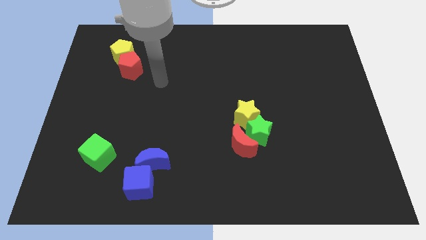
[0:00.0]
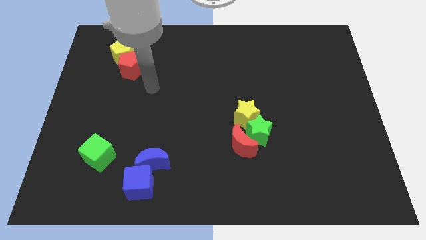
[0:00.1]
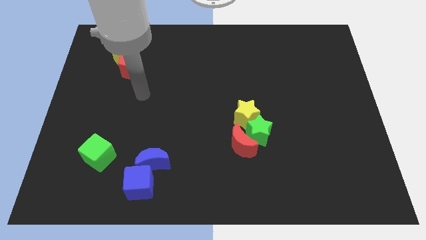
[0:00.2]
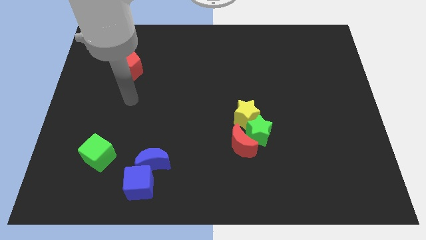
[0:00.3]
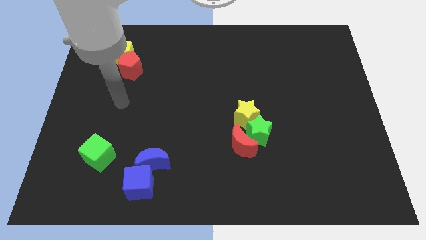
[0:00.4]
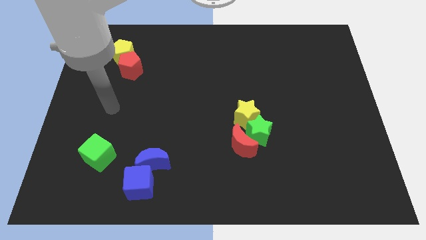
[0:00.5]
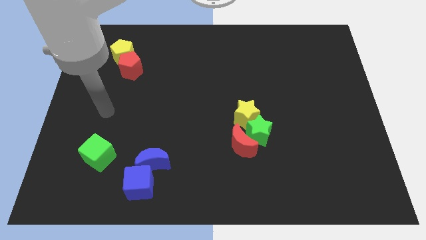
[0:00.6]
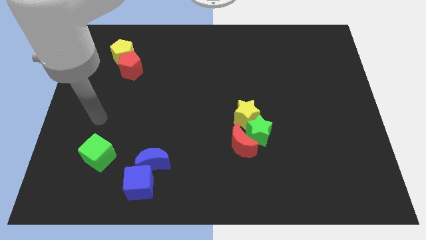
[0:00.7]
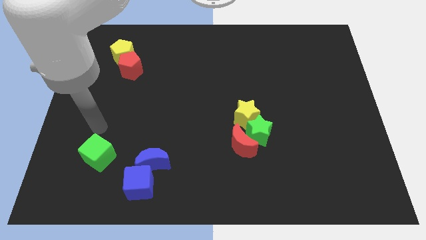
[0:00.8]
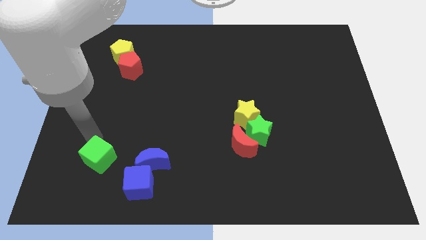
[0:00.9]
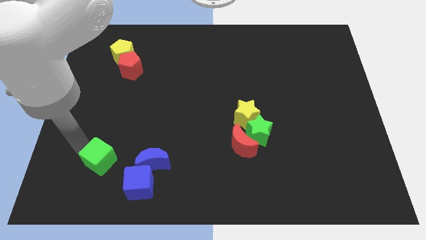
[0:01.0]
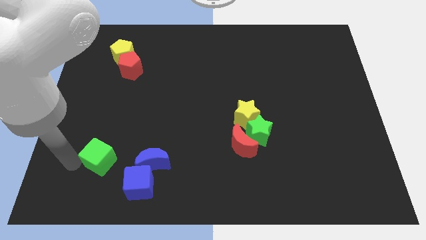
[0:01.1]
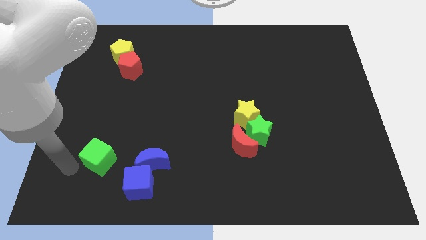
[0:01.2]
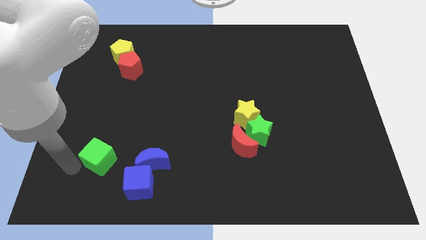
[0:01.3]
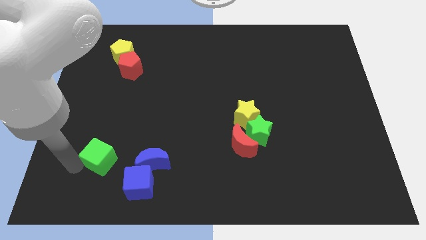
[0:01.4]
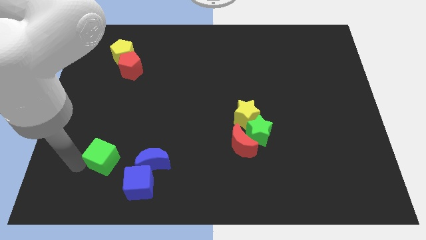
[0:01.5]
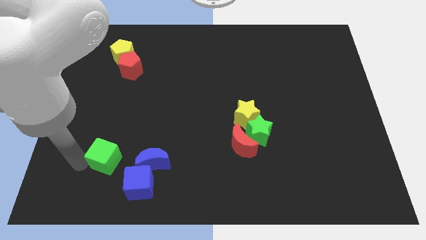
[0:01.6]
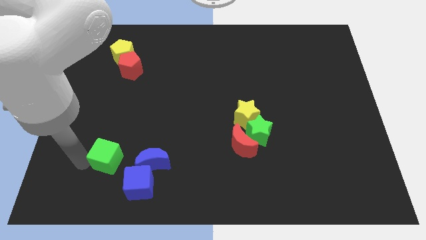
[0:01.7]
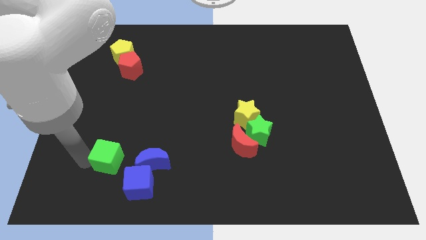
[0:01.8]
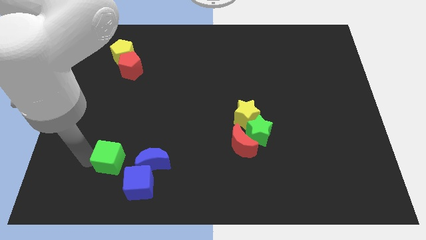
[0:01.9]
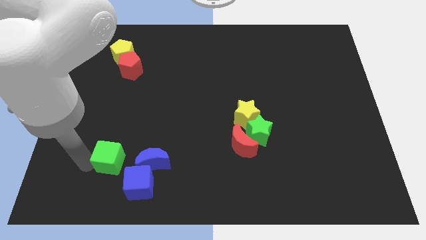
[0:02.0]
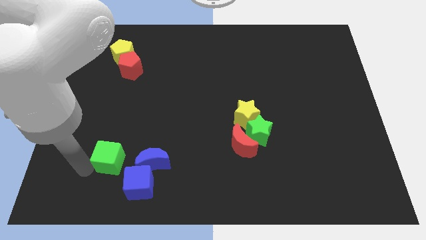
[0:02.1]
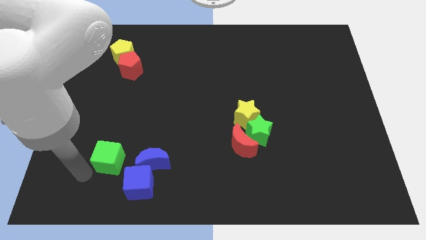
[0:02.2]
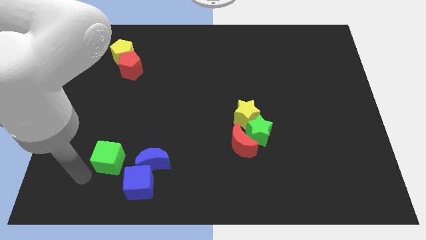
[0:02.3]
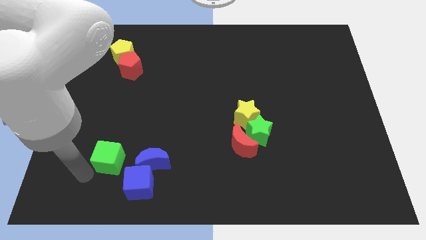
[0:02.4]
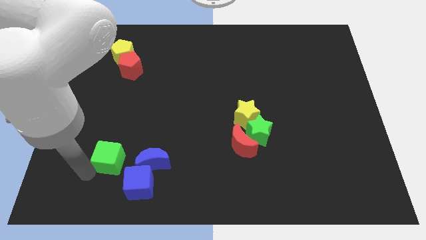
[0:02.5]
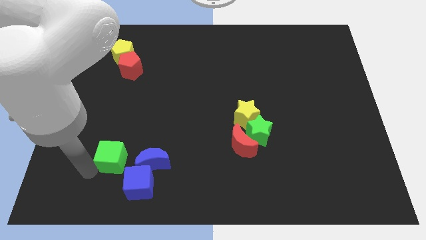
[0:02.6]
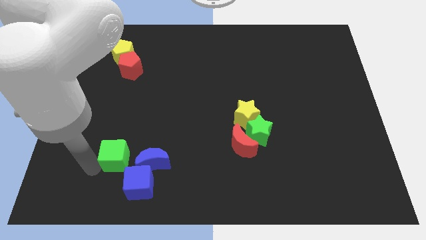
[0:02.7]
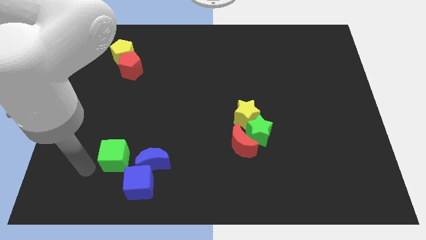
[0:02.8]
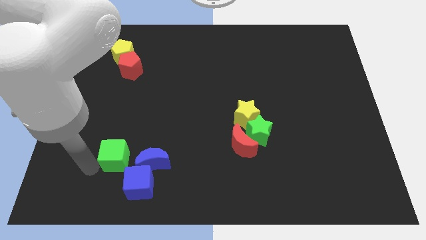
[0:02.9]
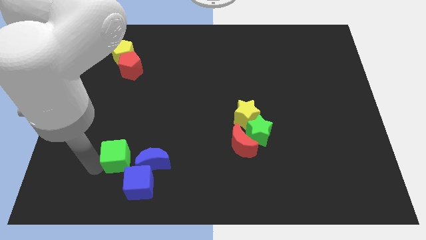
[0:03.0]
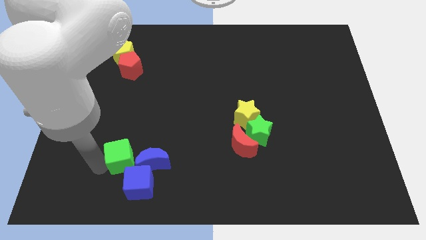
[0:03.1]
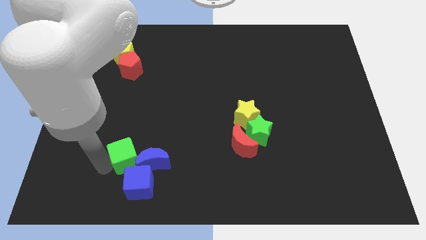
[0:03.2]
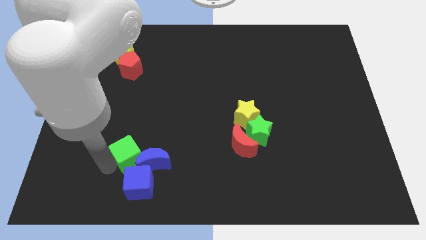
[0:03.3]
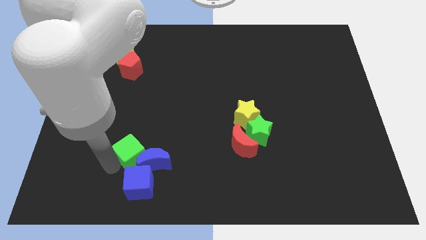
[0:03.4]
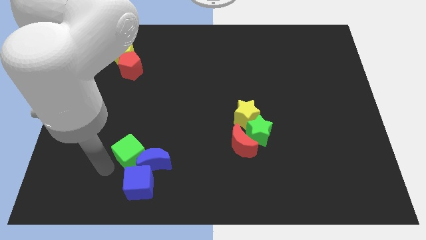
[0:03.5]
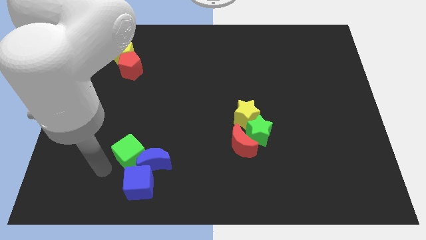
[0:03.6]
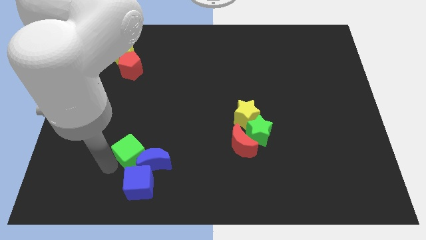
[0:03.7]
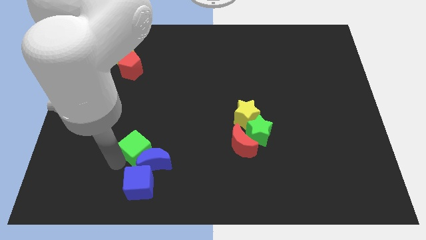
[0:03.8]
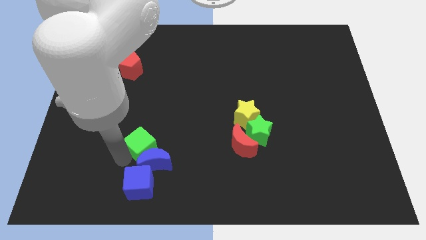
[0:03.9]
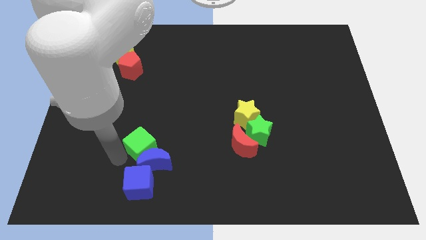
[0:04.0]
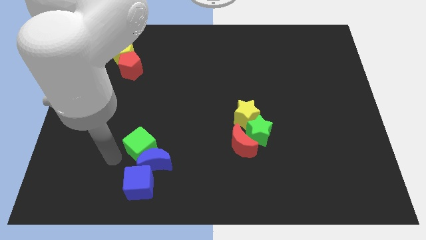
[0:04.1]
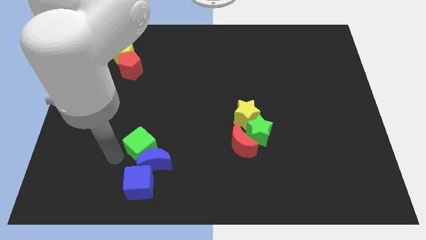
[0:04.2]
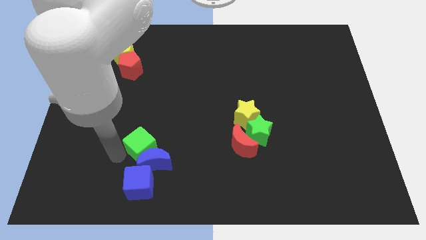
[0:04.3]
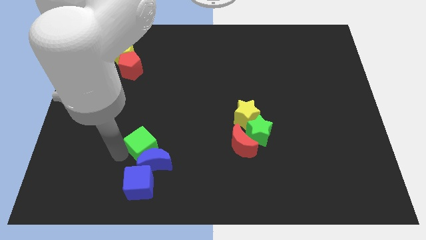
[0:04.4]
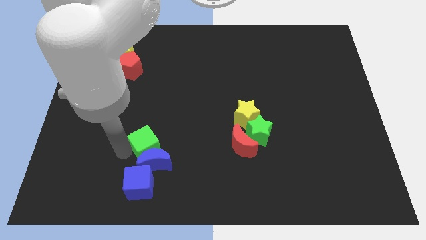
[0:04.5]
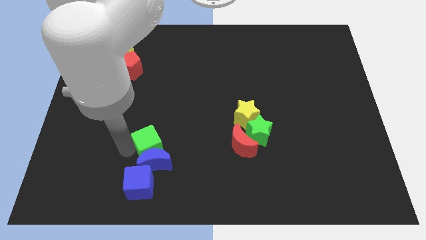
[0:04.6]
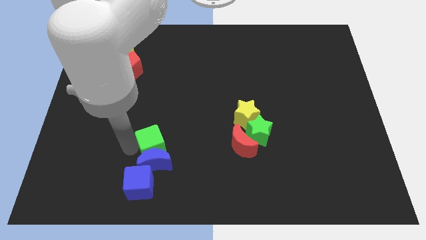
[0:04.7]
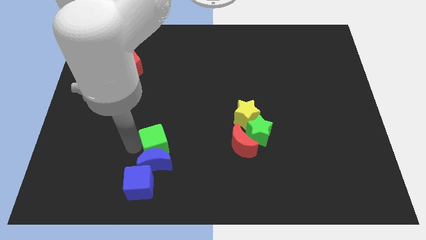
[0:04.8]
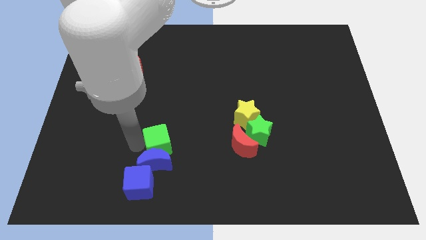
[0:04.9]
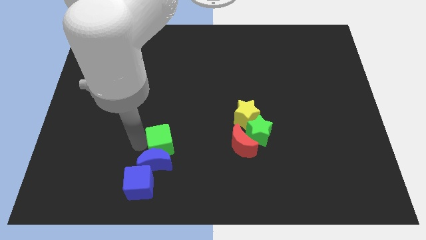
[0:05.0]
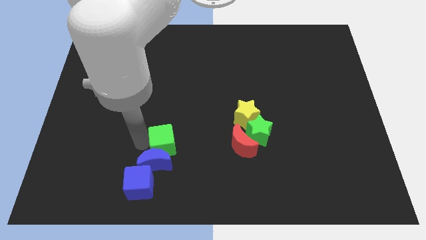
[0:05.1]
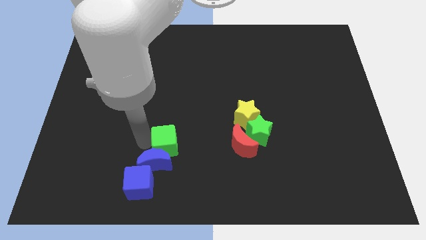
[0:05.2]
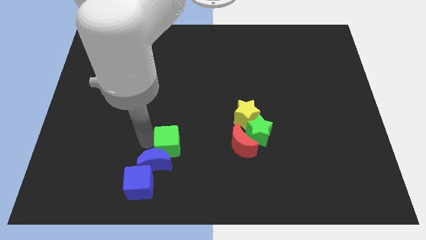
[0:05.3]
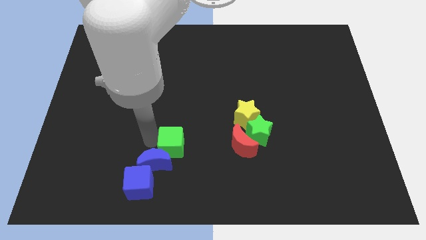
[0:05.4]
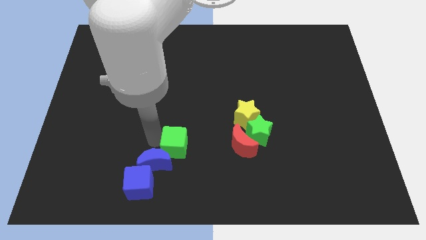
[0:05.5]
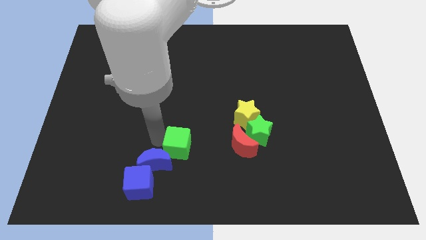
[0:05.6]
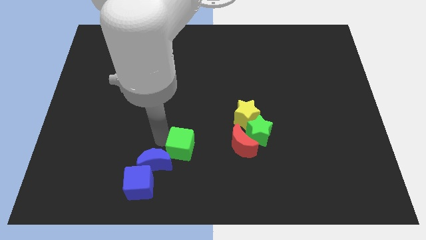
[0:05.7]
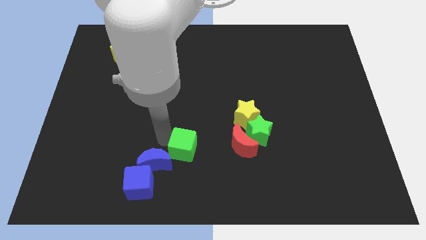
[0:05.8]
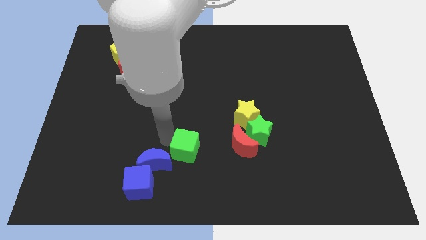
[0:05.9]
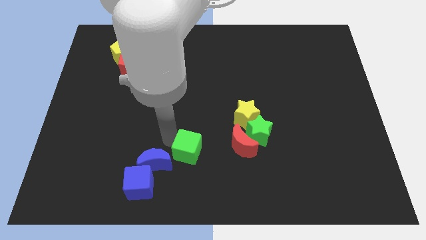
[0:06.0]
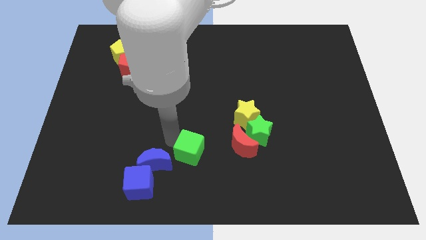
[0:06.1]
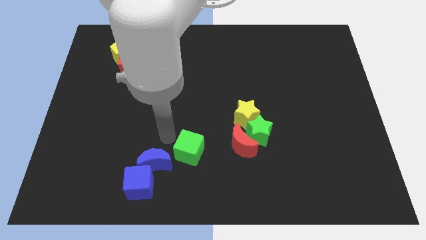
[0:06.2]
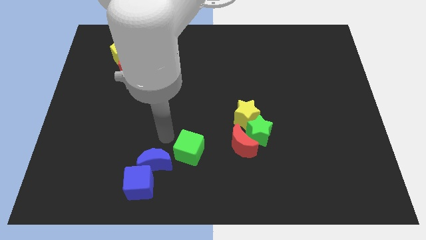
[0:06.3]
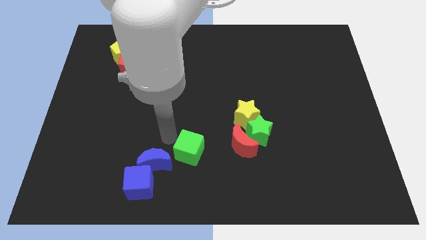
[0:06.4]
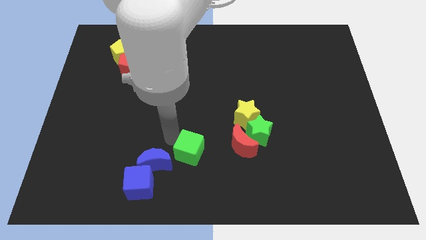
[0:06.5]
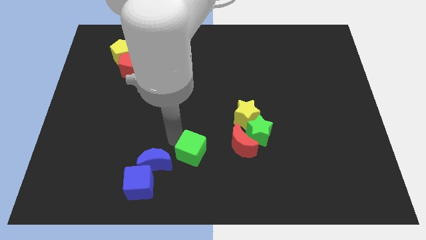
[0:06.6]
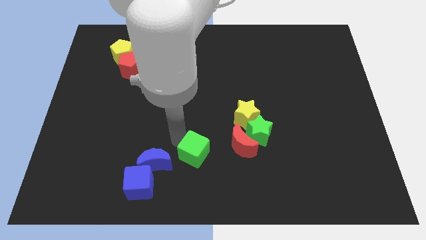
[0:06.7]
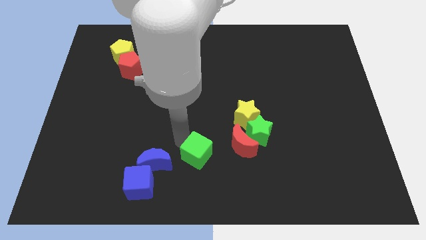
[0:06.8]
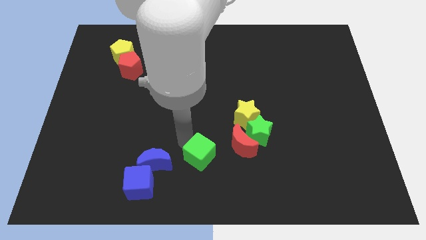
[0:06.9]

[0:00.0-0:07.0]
move the green cube to the bottom left of the red moon

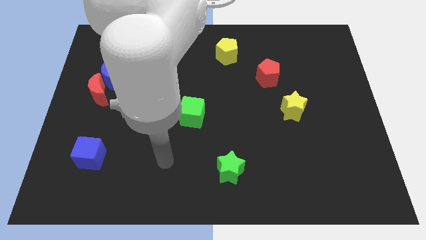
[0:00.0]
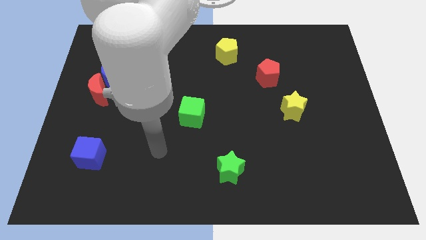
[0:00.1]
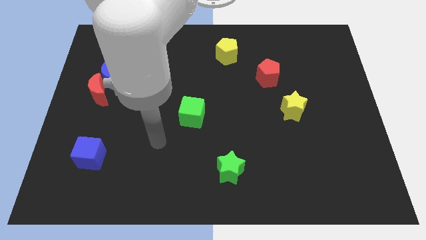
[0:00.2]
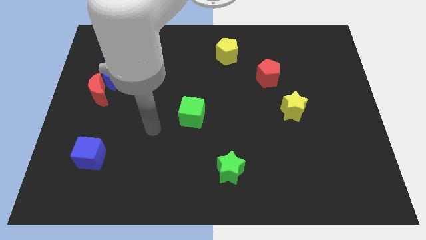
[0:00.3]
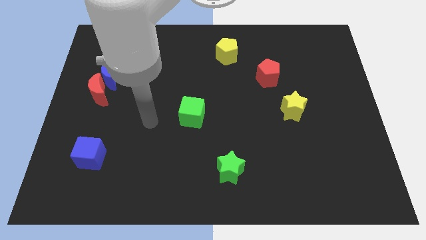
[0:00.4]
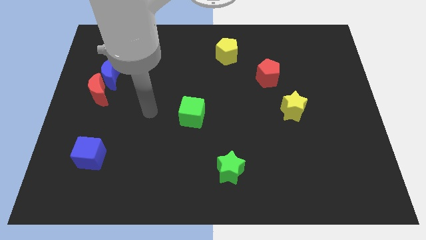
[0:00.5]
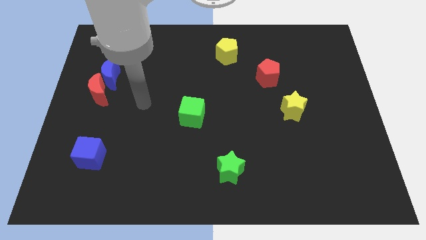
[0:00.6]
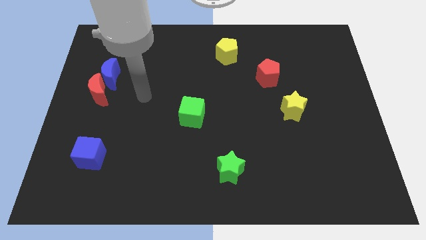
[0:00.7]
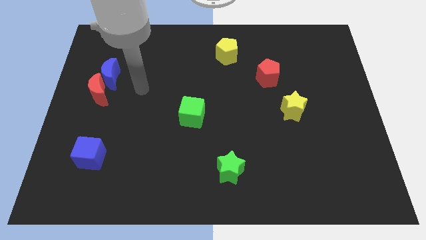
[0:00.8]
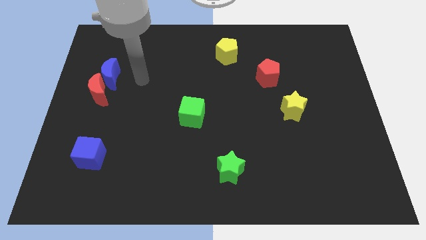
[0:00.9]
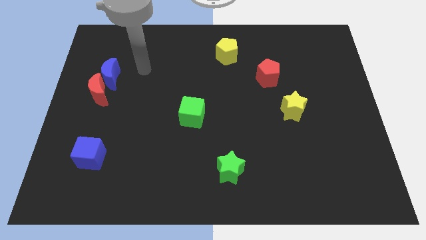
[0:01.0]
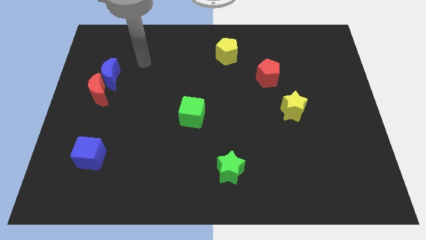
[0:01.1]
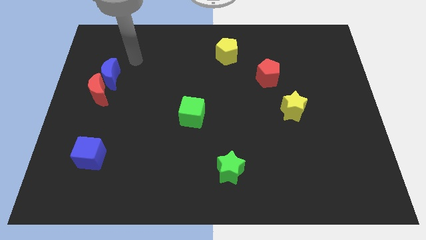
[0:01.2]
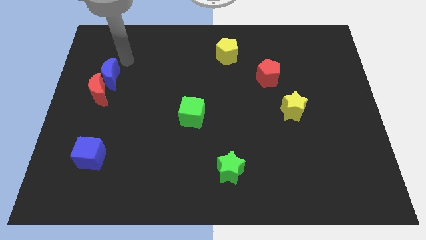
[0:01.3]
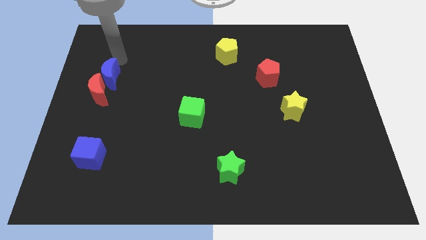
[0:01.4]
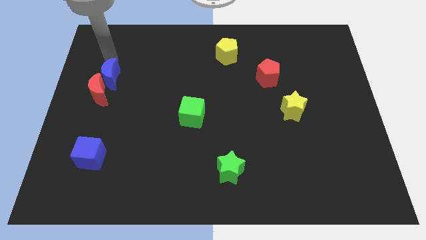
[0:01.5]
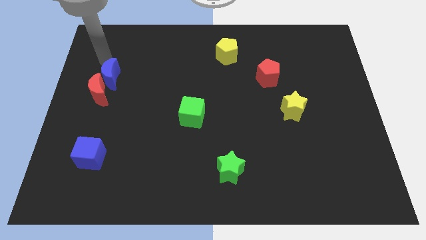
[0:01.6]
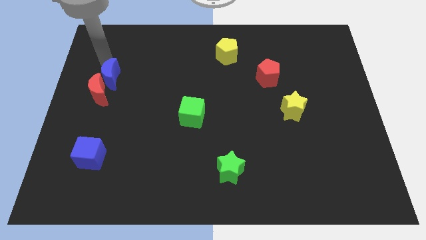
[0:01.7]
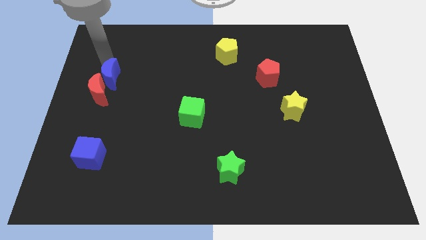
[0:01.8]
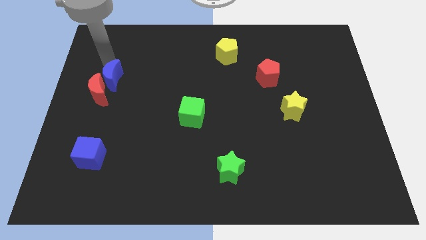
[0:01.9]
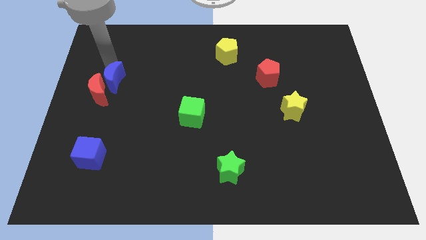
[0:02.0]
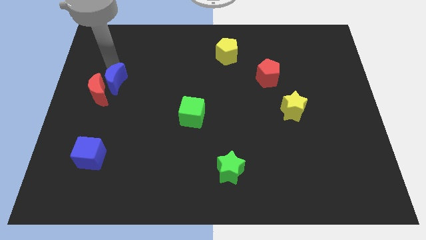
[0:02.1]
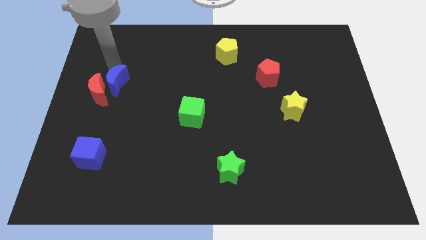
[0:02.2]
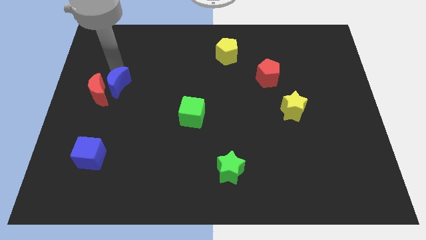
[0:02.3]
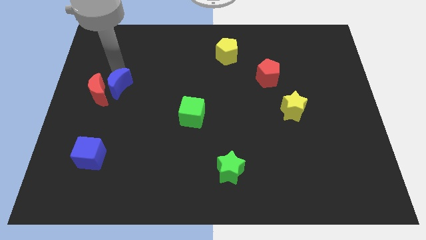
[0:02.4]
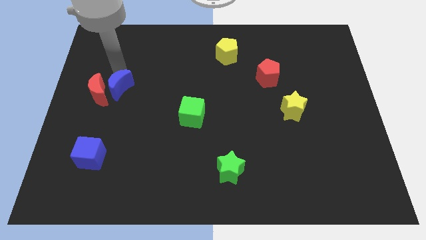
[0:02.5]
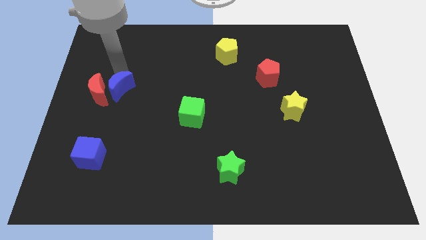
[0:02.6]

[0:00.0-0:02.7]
slide the blue moon to the bottom right side of the red moon
